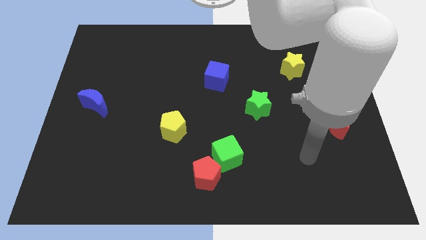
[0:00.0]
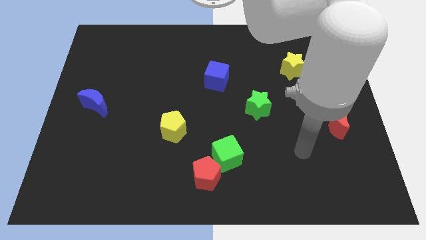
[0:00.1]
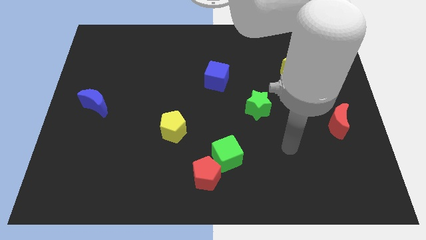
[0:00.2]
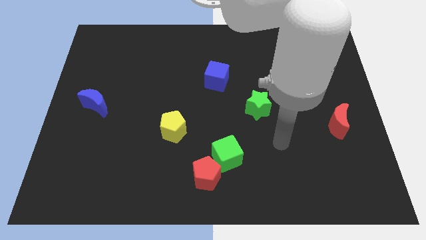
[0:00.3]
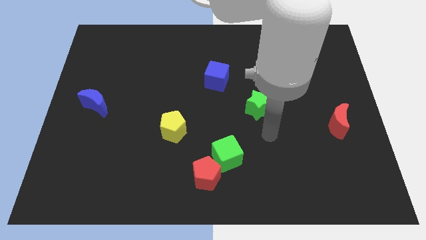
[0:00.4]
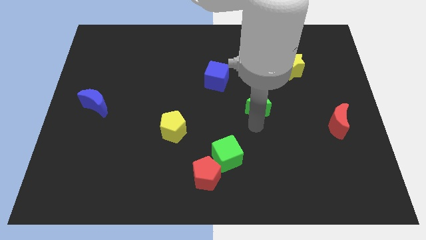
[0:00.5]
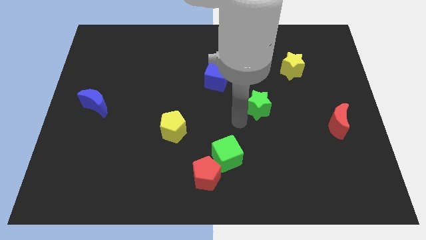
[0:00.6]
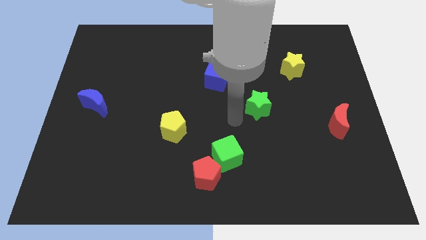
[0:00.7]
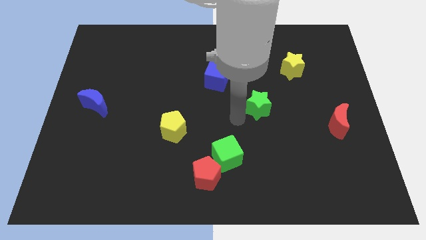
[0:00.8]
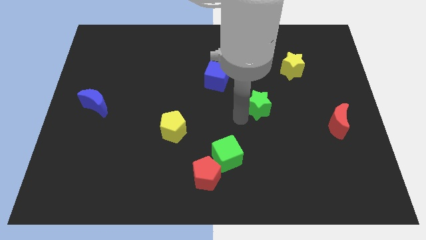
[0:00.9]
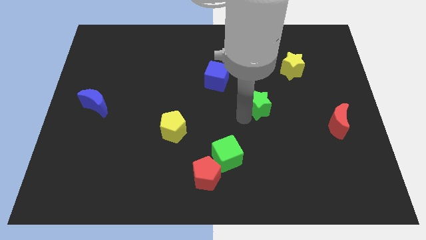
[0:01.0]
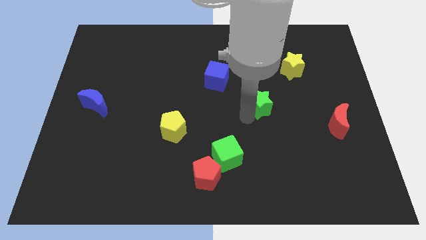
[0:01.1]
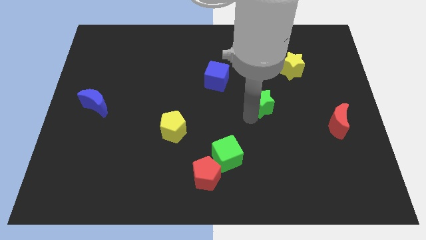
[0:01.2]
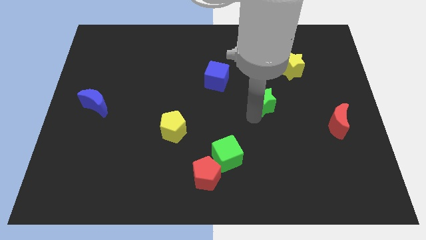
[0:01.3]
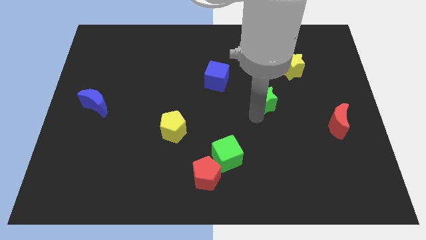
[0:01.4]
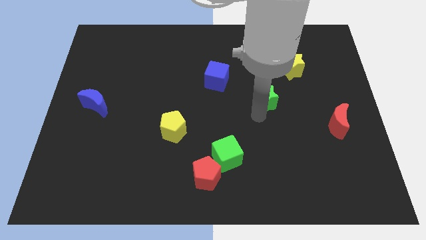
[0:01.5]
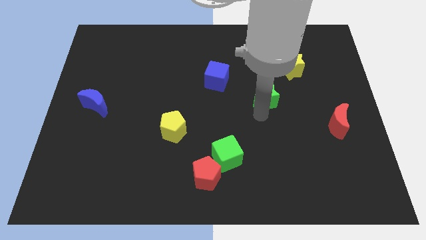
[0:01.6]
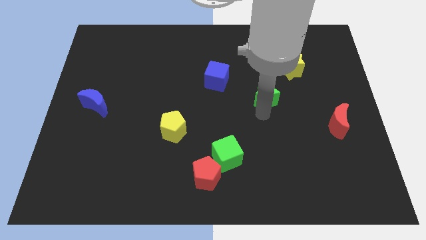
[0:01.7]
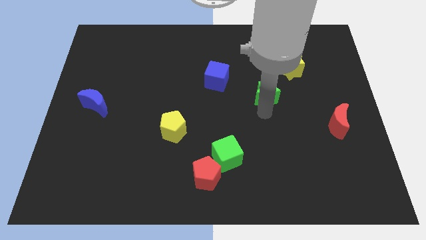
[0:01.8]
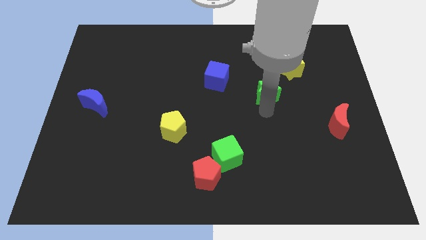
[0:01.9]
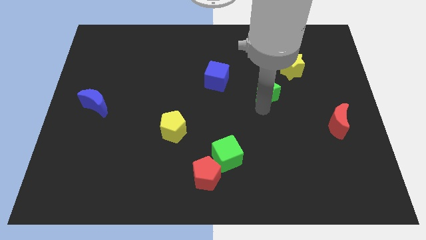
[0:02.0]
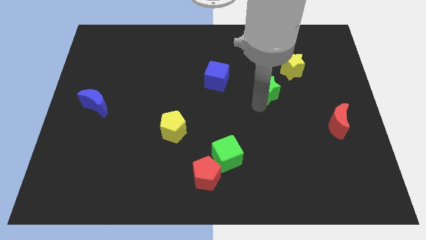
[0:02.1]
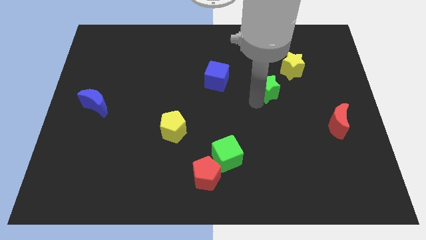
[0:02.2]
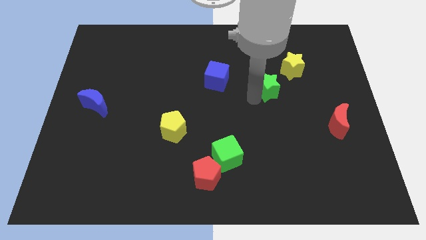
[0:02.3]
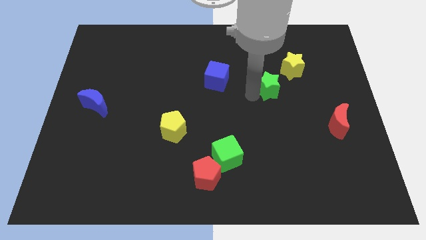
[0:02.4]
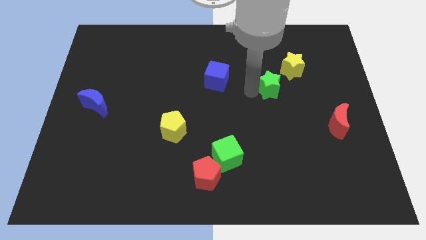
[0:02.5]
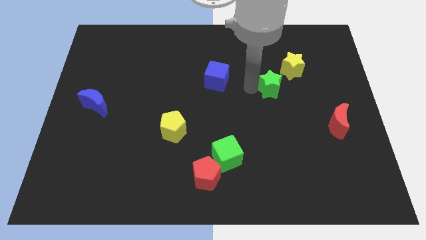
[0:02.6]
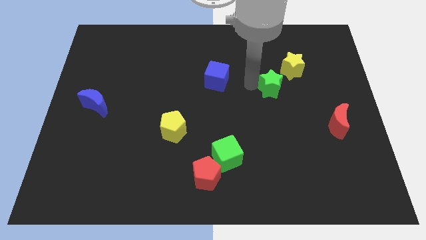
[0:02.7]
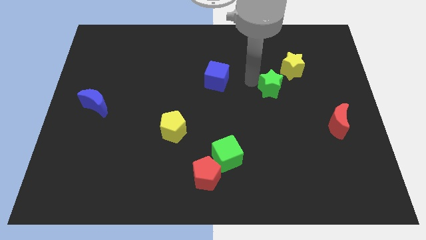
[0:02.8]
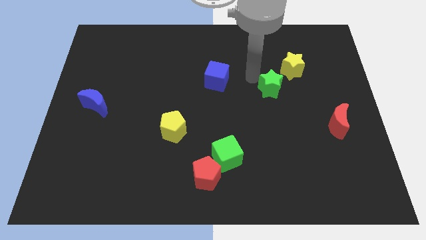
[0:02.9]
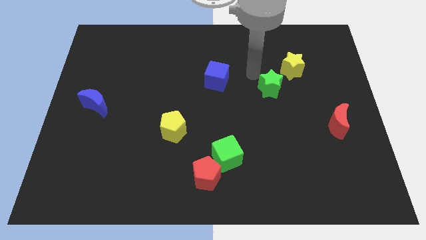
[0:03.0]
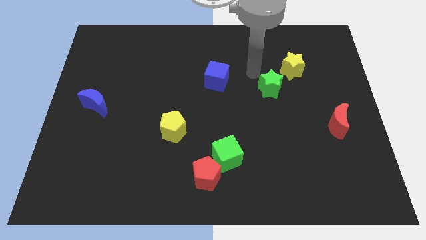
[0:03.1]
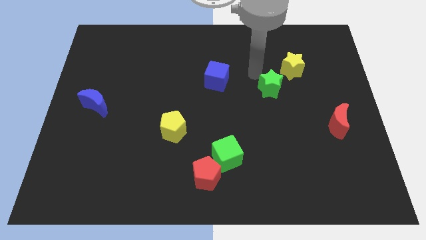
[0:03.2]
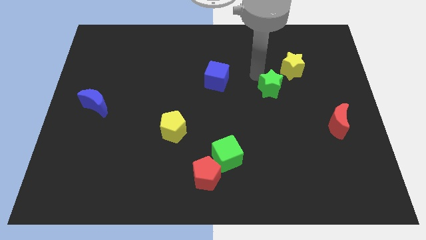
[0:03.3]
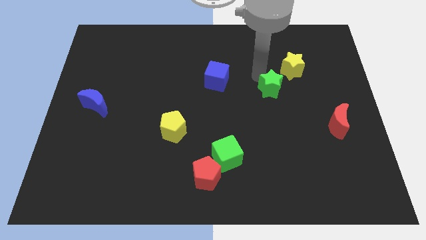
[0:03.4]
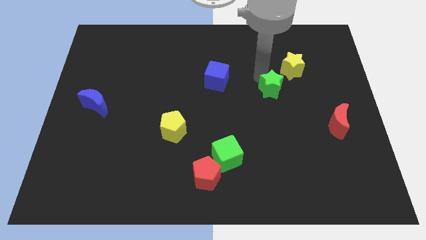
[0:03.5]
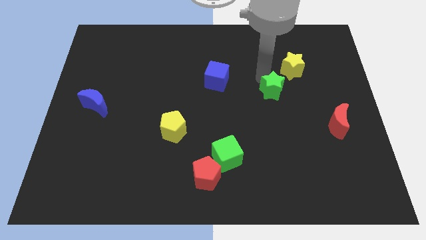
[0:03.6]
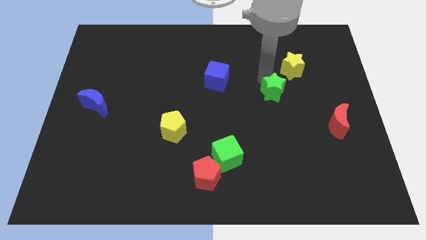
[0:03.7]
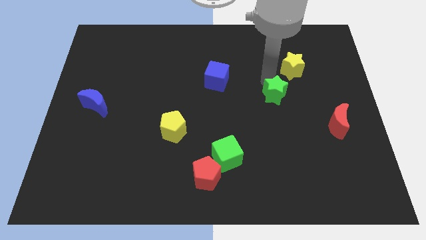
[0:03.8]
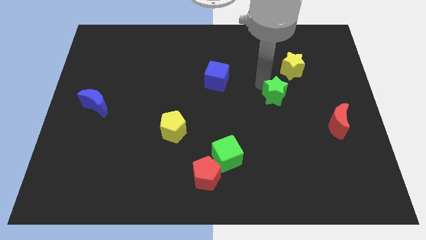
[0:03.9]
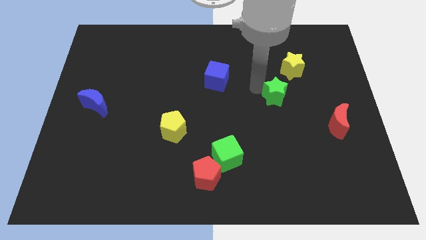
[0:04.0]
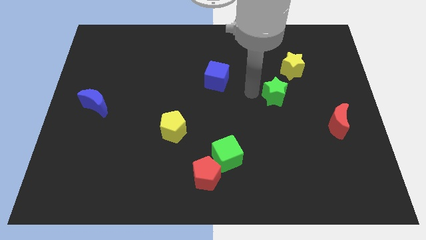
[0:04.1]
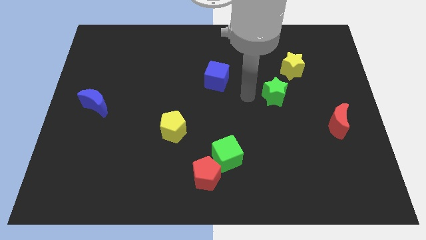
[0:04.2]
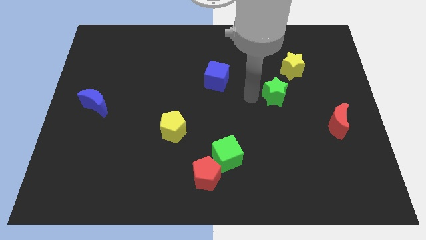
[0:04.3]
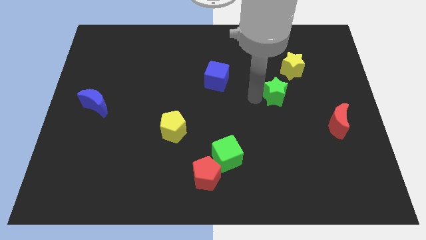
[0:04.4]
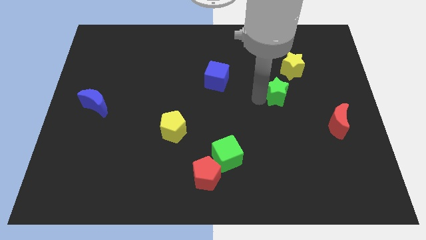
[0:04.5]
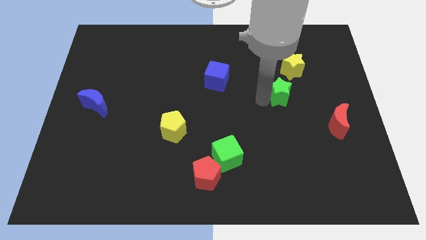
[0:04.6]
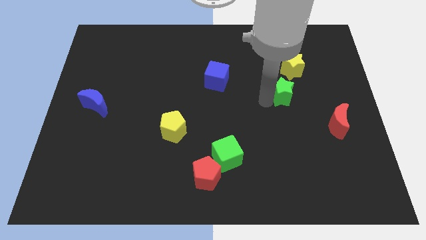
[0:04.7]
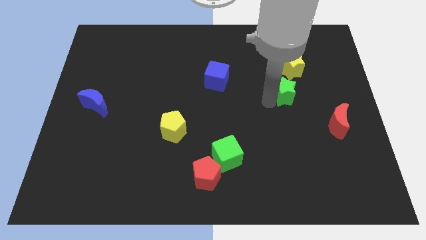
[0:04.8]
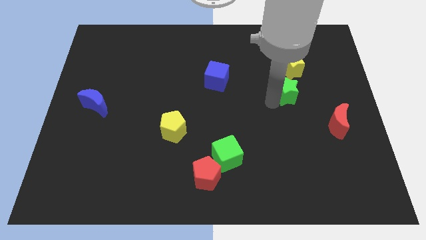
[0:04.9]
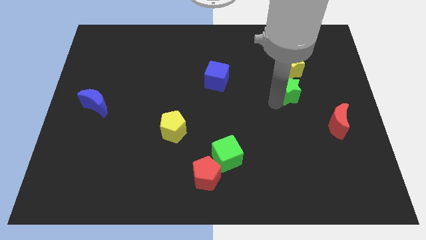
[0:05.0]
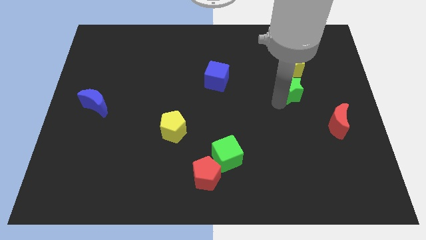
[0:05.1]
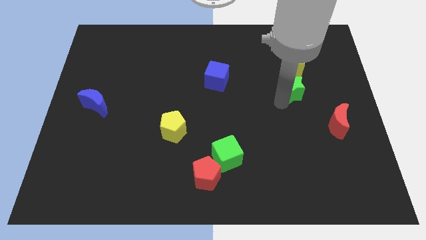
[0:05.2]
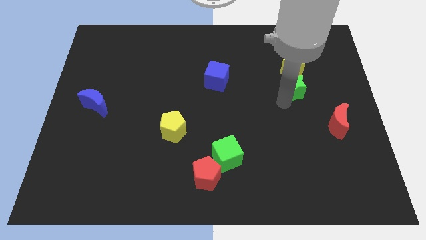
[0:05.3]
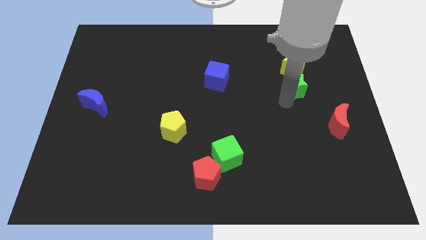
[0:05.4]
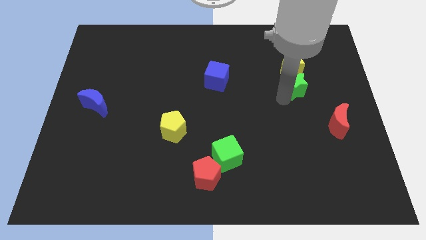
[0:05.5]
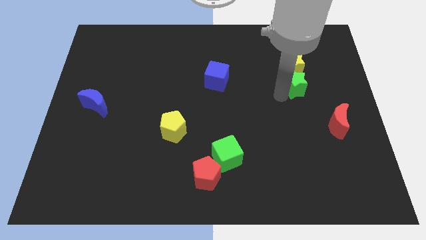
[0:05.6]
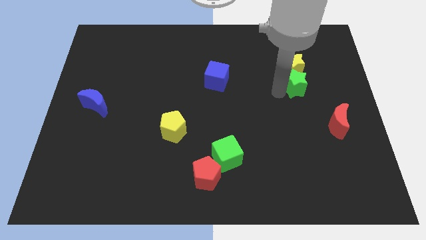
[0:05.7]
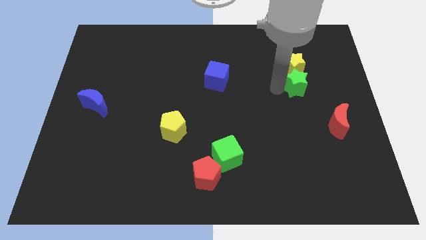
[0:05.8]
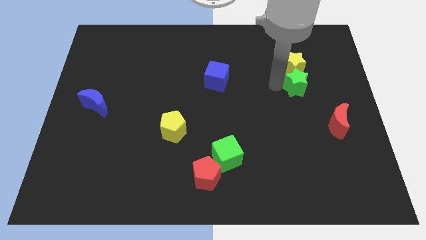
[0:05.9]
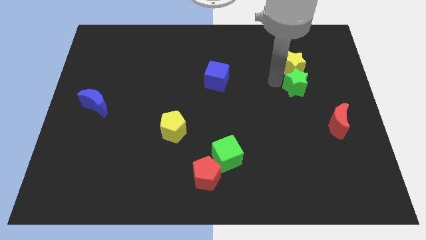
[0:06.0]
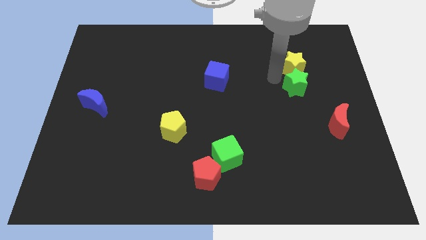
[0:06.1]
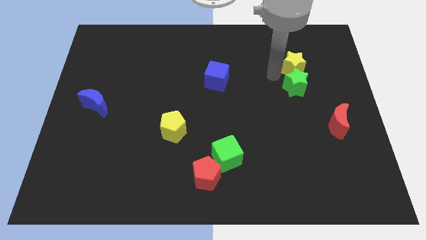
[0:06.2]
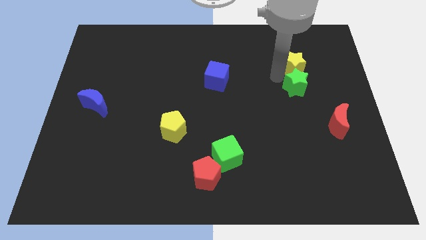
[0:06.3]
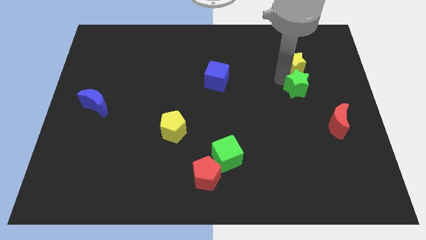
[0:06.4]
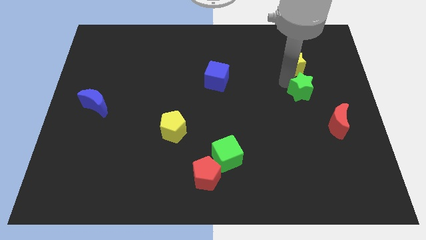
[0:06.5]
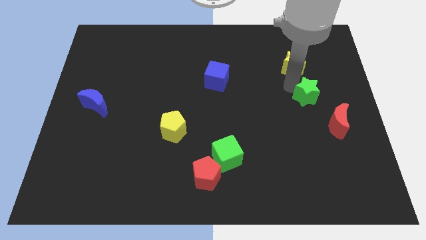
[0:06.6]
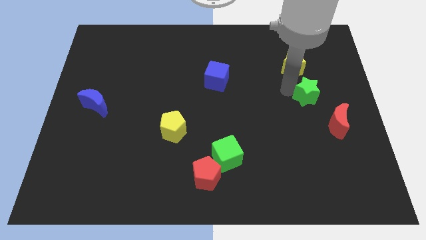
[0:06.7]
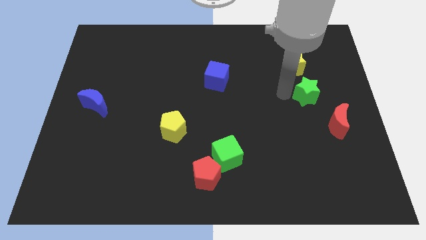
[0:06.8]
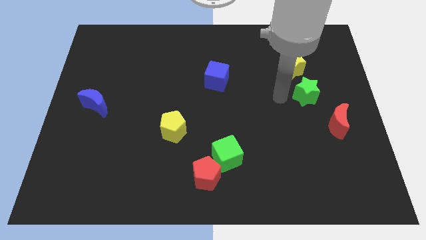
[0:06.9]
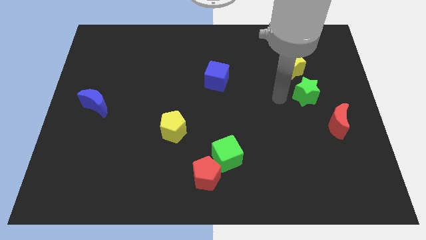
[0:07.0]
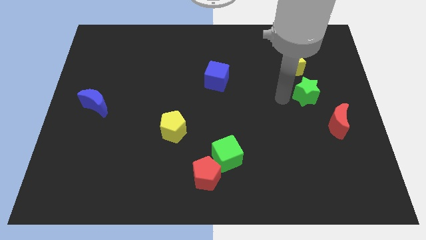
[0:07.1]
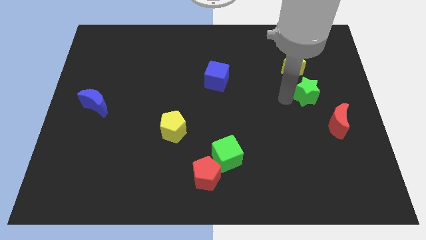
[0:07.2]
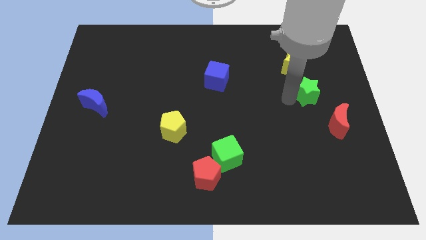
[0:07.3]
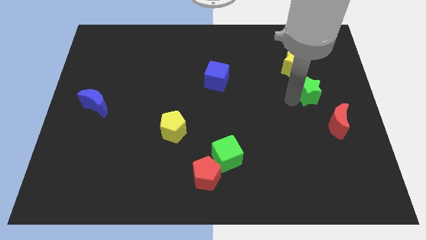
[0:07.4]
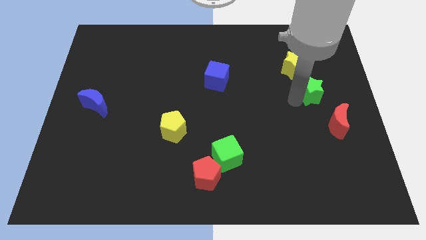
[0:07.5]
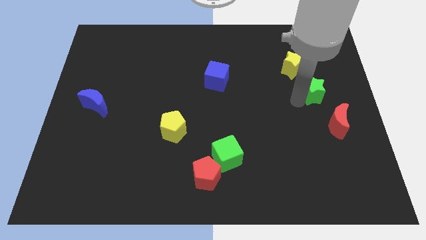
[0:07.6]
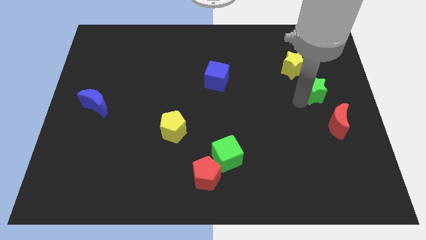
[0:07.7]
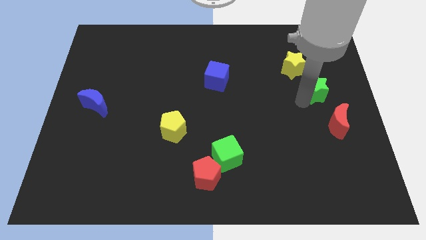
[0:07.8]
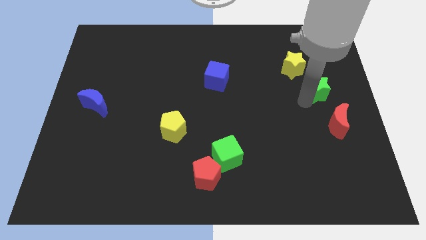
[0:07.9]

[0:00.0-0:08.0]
slide the green star to the center right
